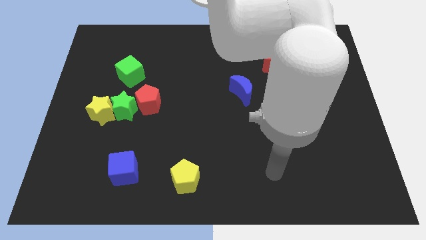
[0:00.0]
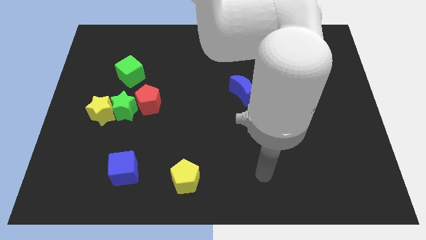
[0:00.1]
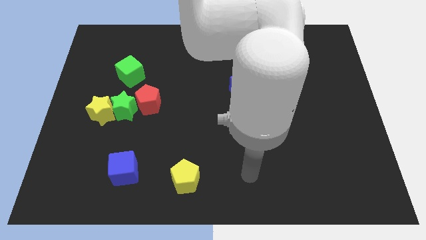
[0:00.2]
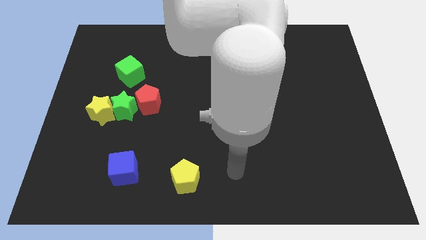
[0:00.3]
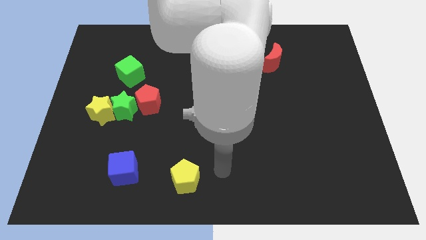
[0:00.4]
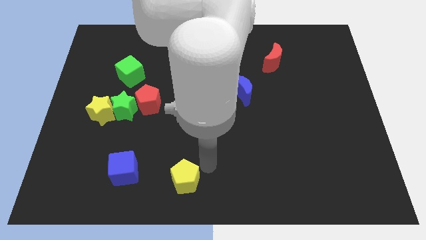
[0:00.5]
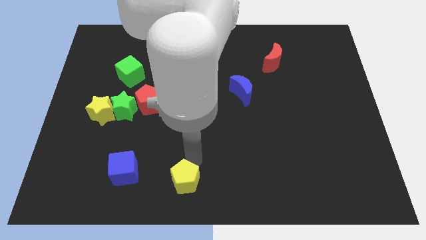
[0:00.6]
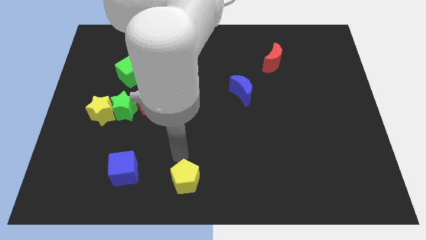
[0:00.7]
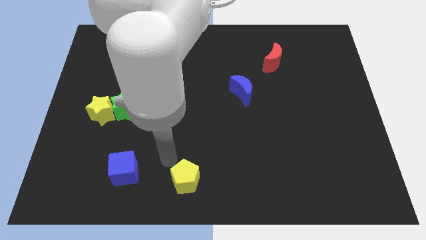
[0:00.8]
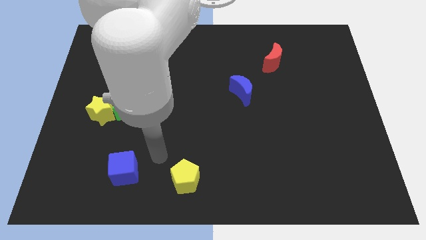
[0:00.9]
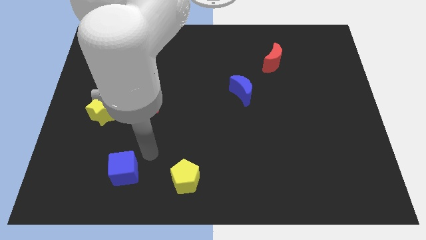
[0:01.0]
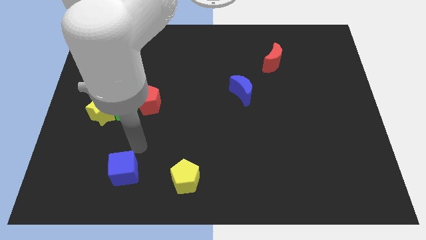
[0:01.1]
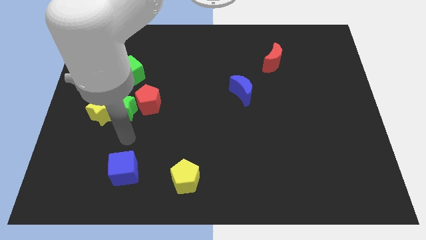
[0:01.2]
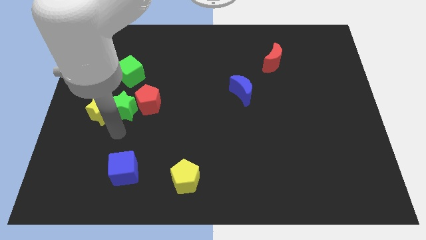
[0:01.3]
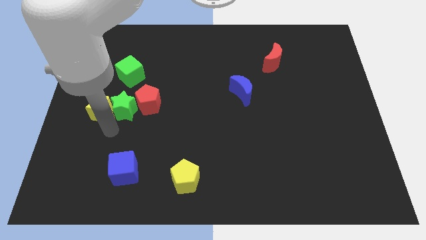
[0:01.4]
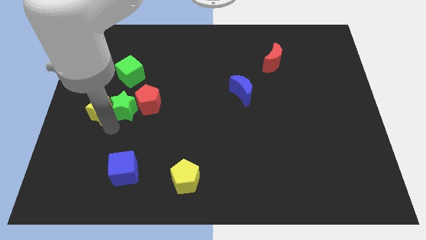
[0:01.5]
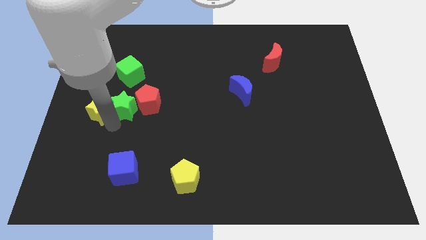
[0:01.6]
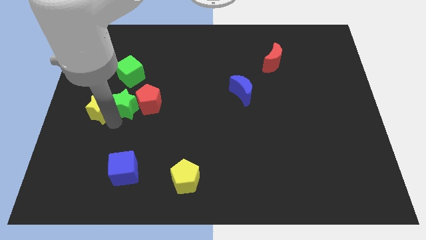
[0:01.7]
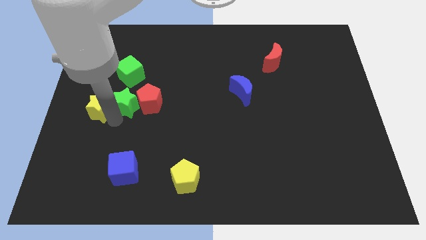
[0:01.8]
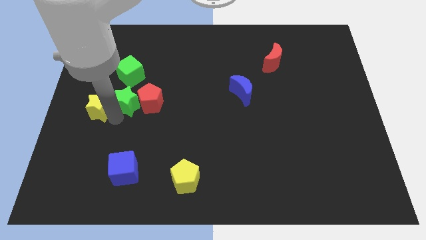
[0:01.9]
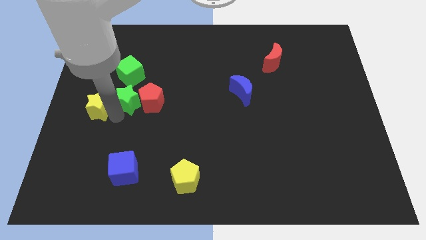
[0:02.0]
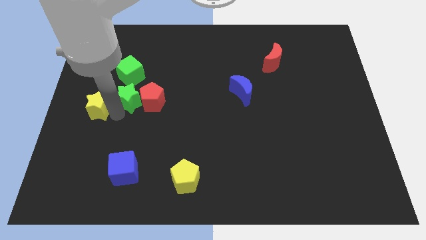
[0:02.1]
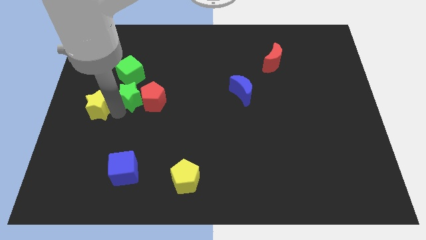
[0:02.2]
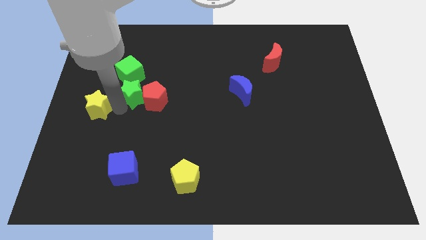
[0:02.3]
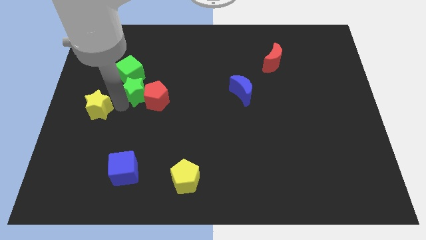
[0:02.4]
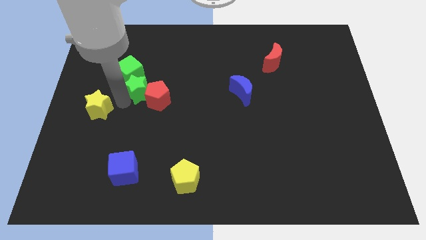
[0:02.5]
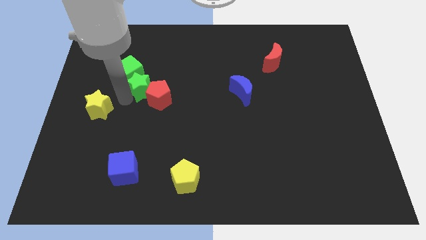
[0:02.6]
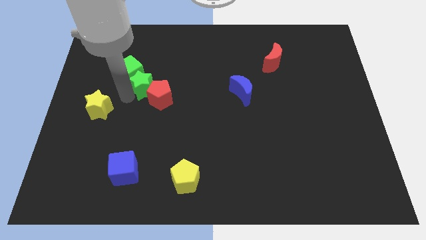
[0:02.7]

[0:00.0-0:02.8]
slightly push the green star up and to the right

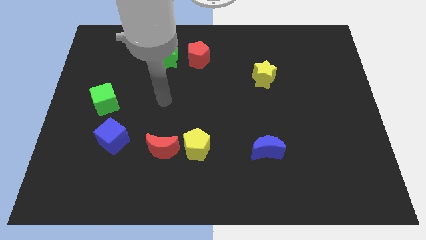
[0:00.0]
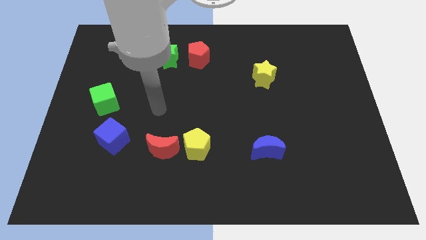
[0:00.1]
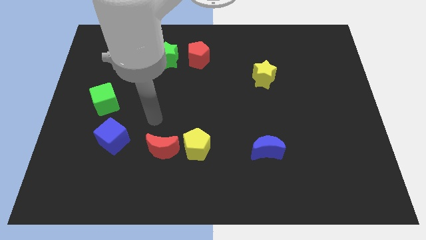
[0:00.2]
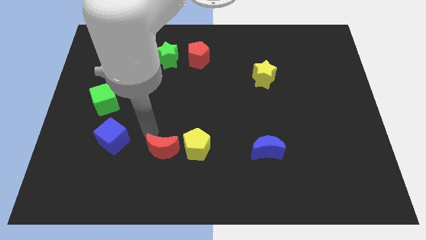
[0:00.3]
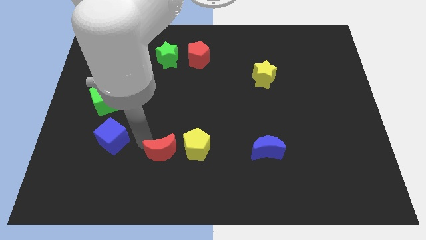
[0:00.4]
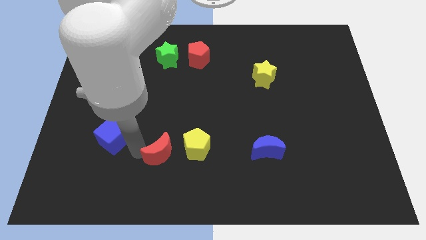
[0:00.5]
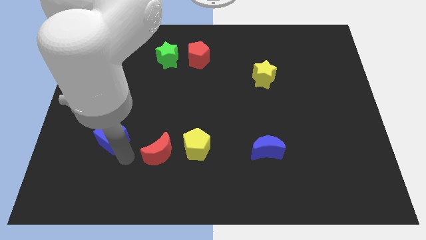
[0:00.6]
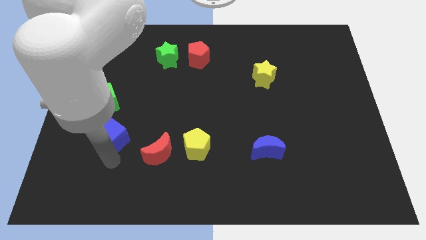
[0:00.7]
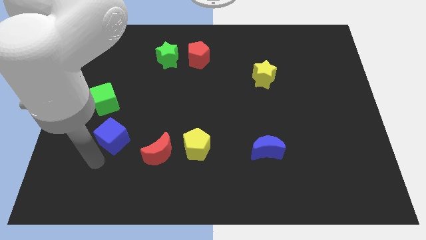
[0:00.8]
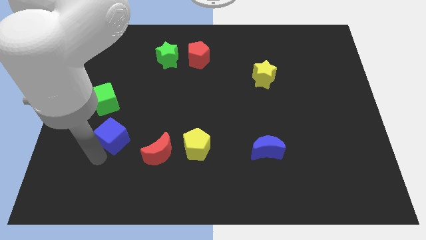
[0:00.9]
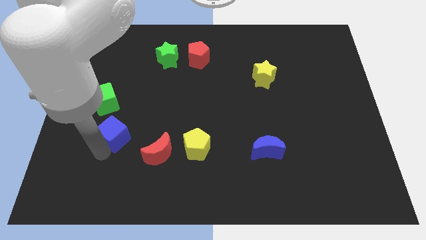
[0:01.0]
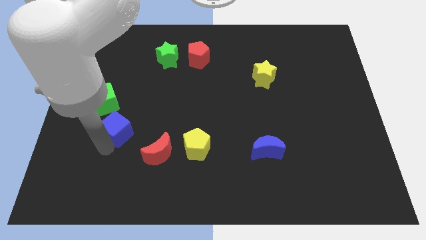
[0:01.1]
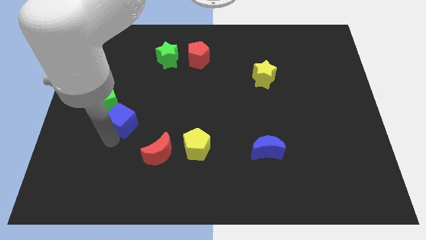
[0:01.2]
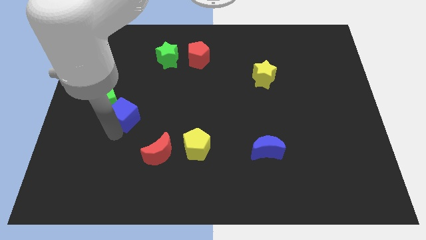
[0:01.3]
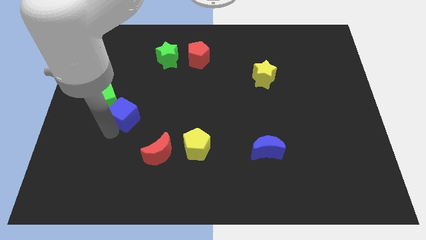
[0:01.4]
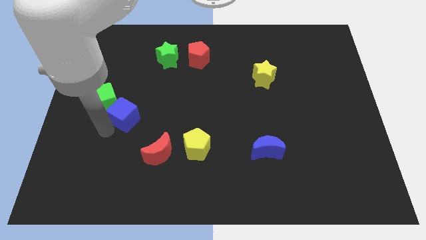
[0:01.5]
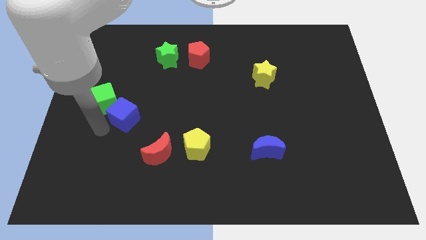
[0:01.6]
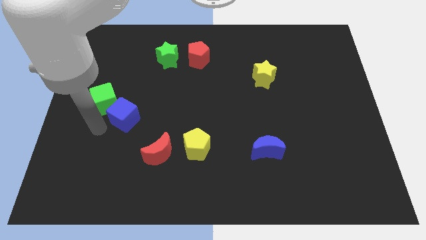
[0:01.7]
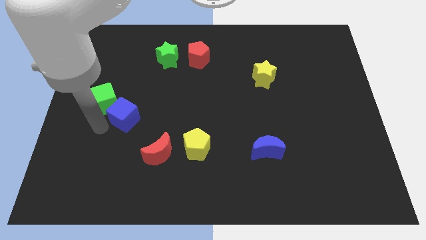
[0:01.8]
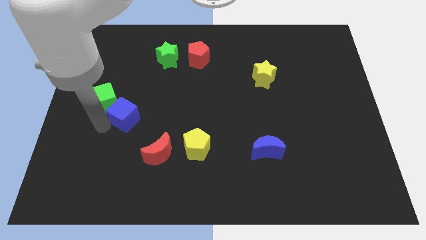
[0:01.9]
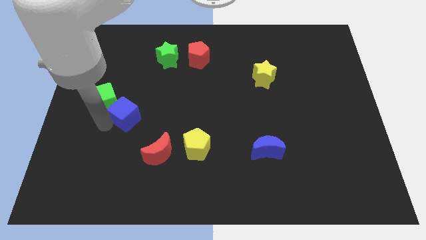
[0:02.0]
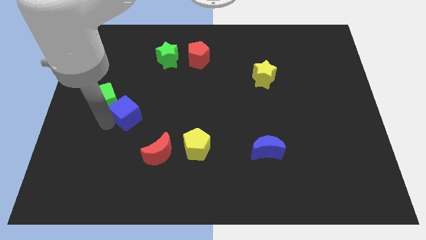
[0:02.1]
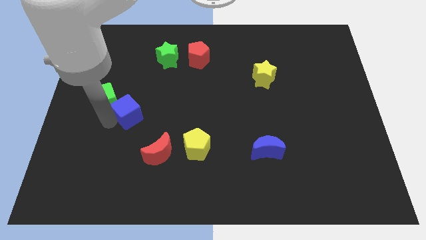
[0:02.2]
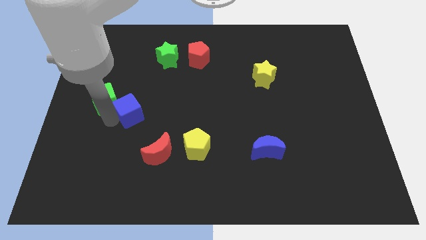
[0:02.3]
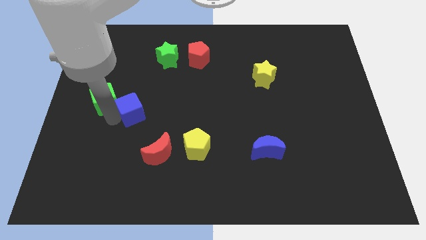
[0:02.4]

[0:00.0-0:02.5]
push the blue cube a bit up and right

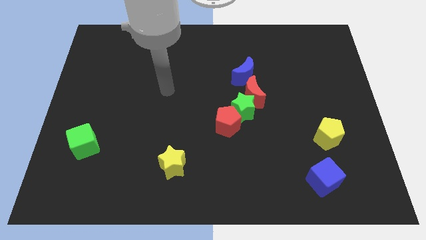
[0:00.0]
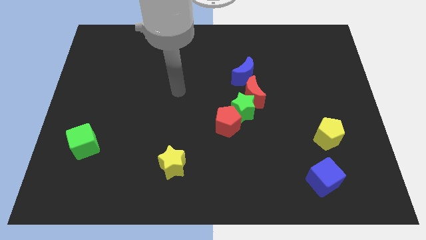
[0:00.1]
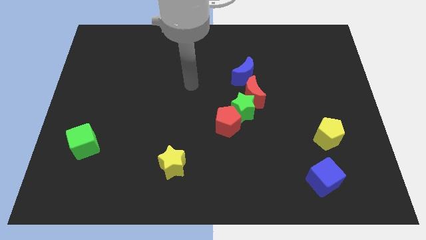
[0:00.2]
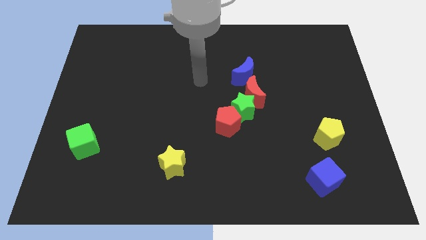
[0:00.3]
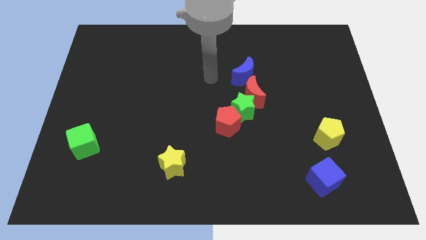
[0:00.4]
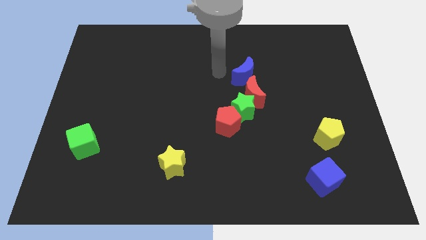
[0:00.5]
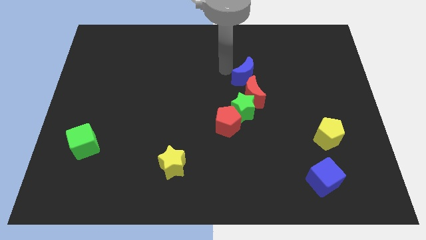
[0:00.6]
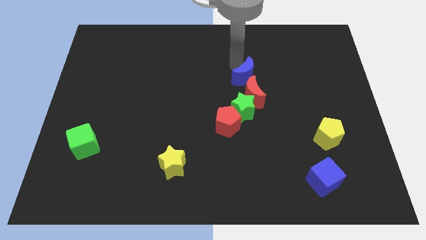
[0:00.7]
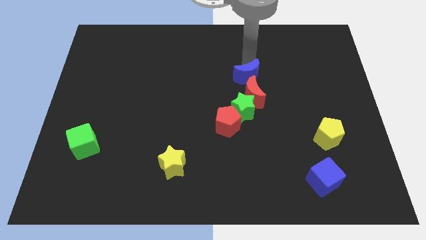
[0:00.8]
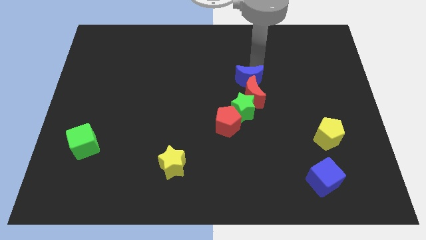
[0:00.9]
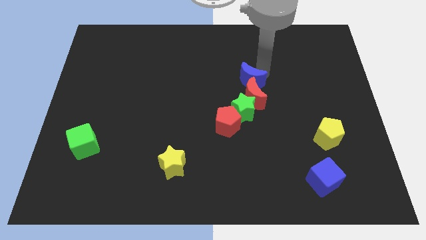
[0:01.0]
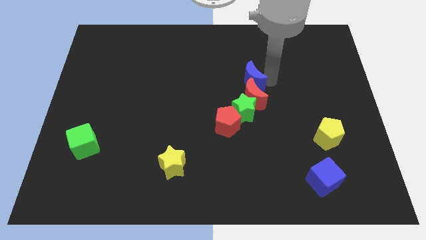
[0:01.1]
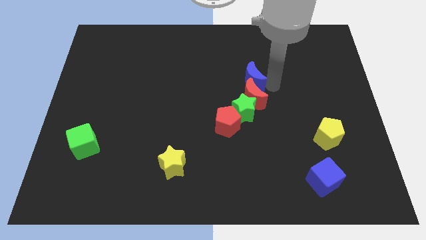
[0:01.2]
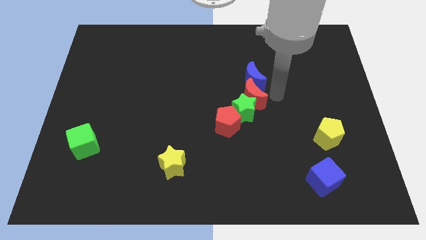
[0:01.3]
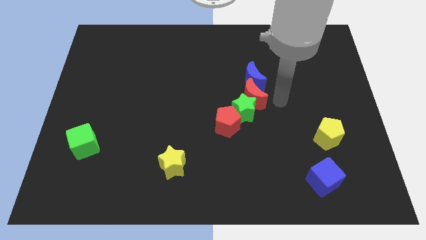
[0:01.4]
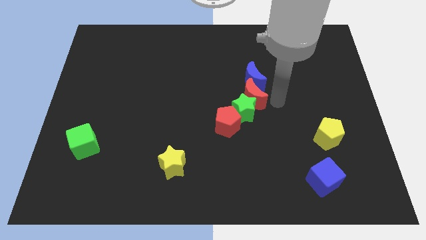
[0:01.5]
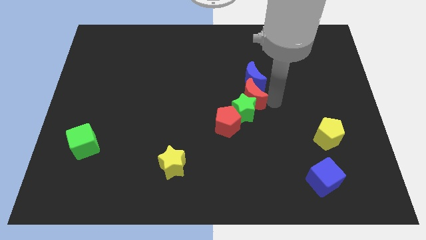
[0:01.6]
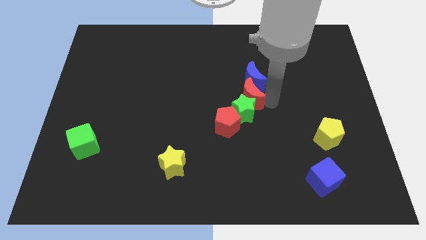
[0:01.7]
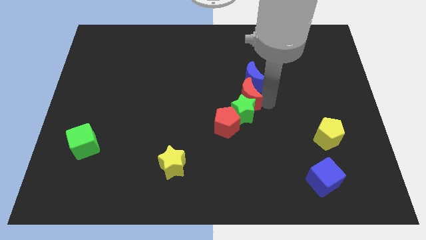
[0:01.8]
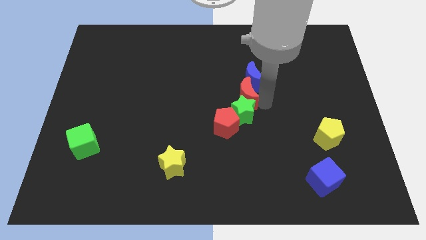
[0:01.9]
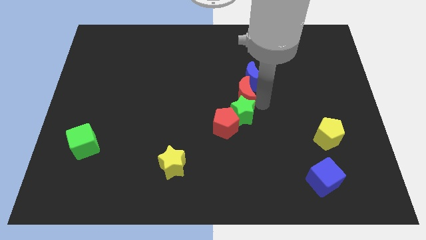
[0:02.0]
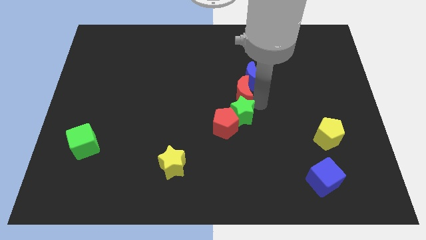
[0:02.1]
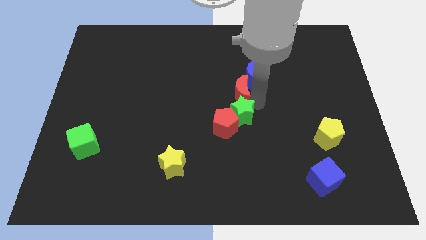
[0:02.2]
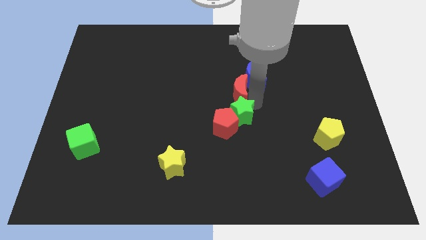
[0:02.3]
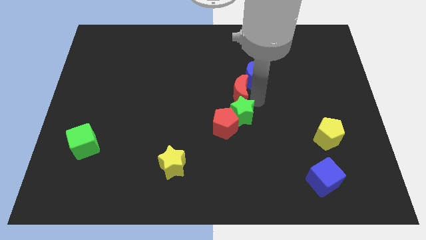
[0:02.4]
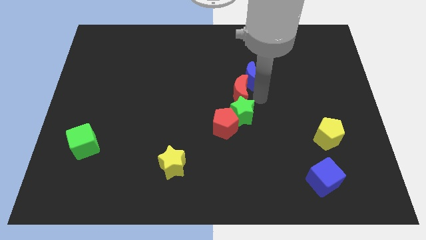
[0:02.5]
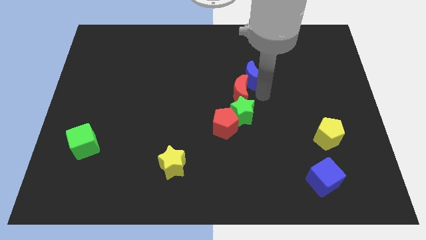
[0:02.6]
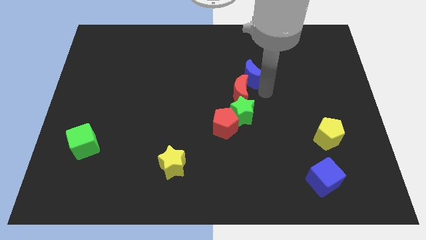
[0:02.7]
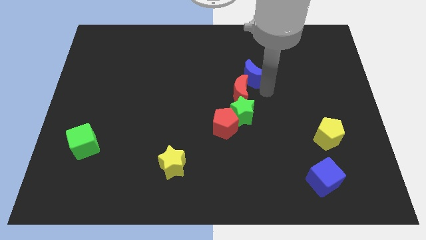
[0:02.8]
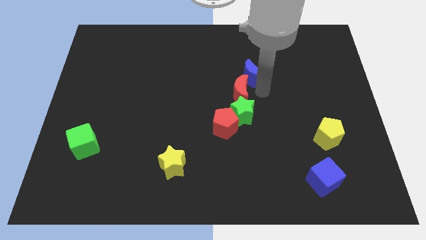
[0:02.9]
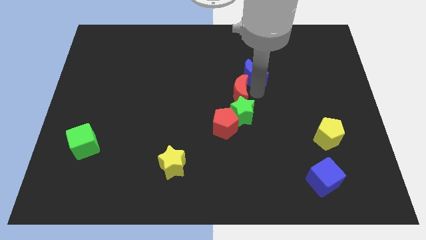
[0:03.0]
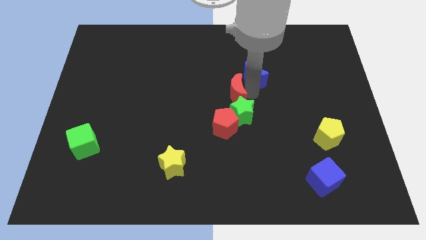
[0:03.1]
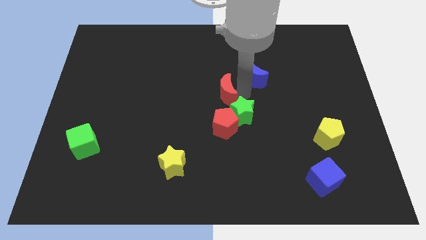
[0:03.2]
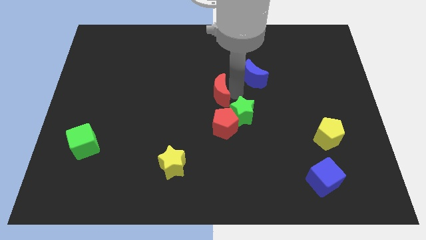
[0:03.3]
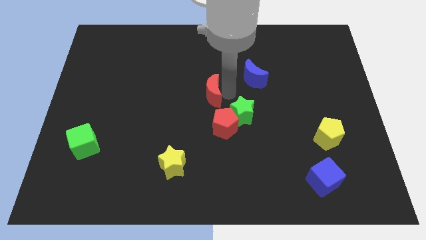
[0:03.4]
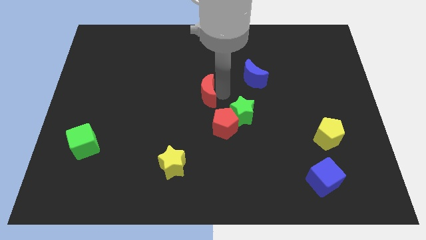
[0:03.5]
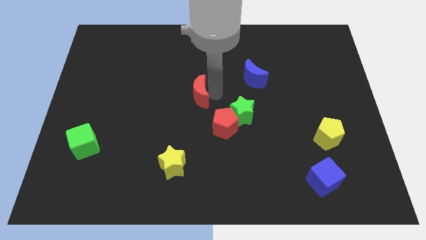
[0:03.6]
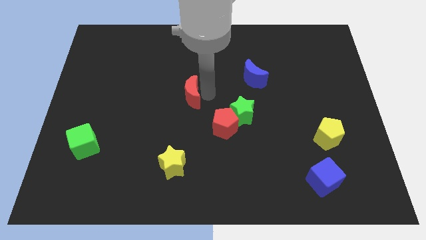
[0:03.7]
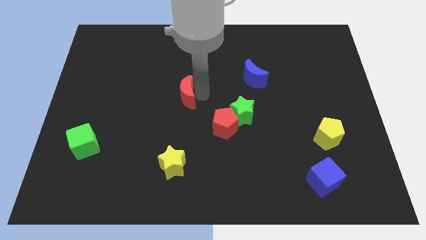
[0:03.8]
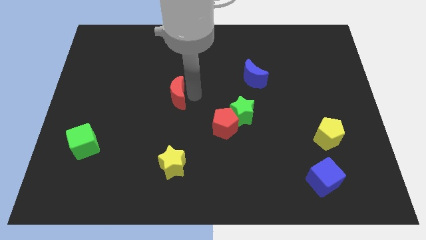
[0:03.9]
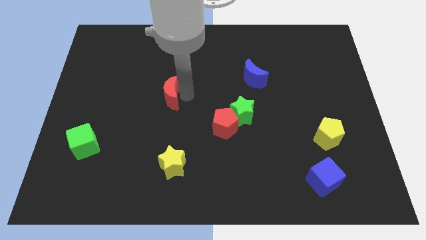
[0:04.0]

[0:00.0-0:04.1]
slide the red moon left
